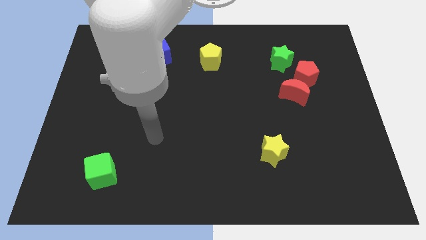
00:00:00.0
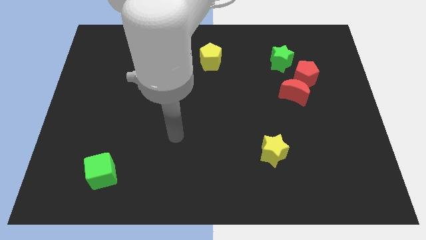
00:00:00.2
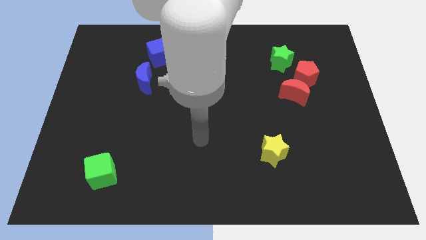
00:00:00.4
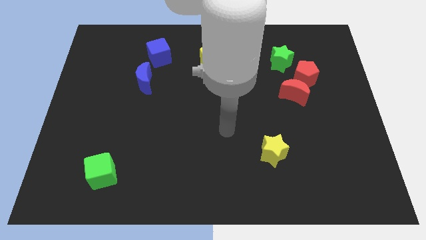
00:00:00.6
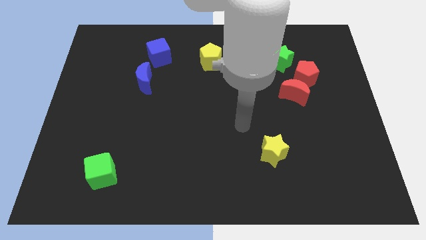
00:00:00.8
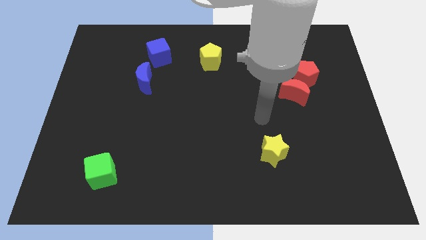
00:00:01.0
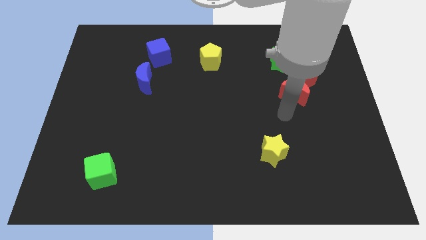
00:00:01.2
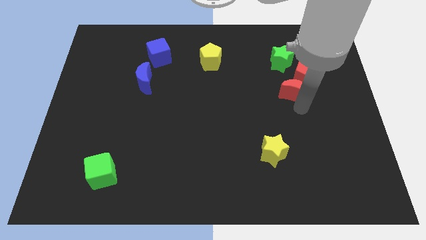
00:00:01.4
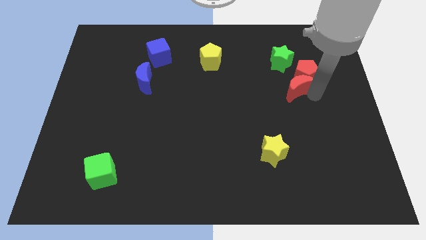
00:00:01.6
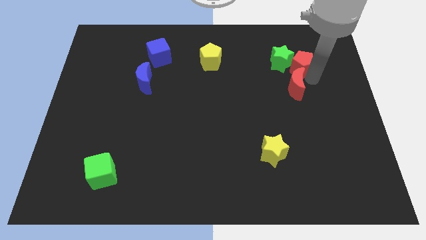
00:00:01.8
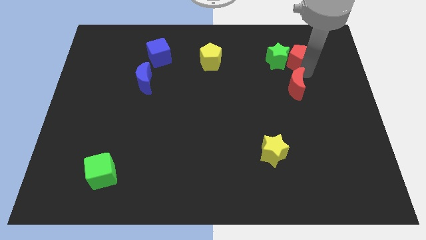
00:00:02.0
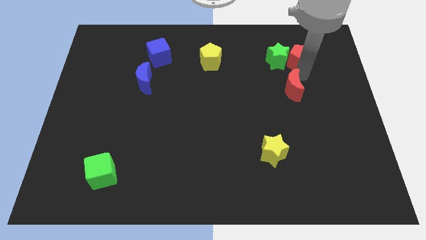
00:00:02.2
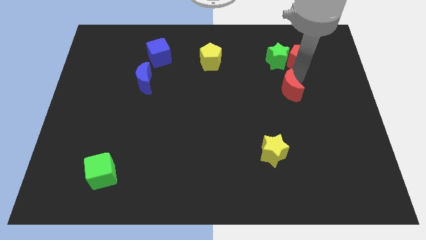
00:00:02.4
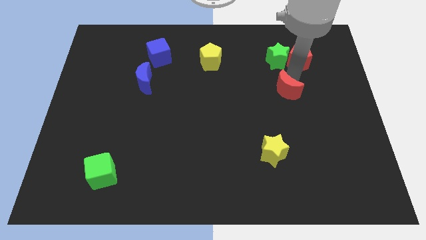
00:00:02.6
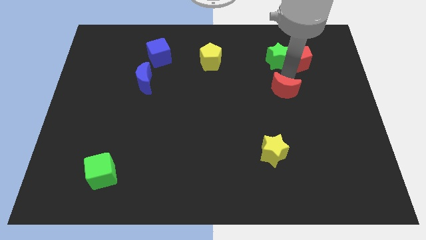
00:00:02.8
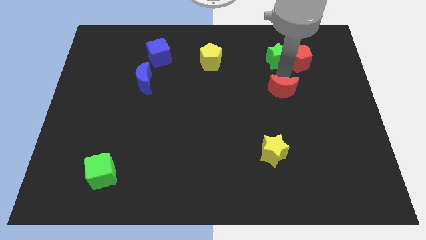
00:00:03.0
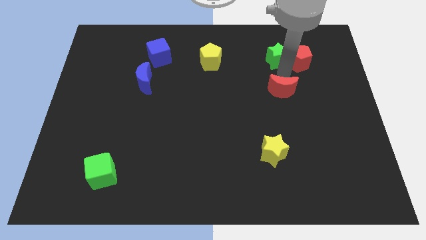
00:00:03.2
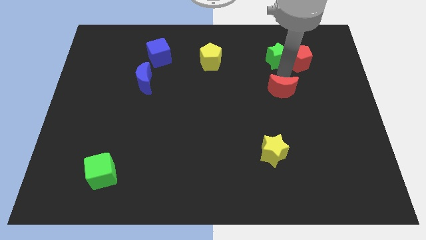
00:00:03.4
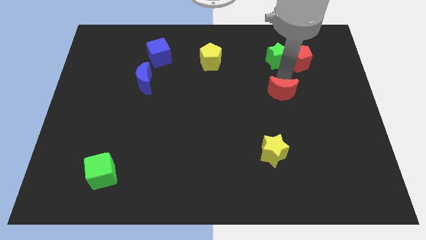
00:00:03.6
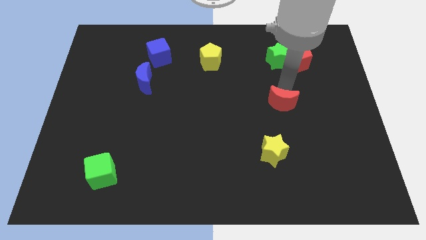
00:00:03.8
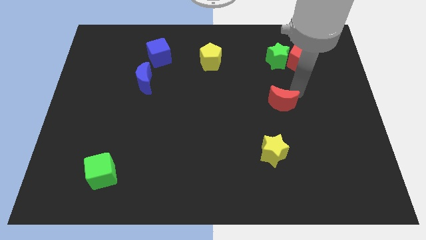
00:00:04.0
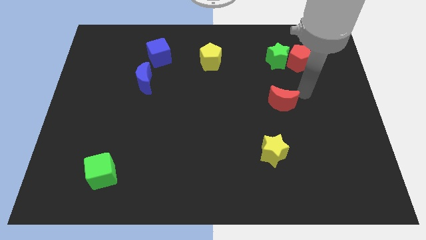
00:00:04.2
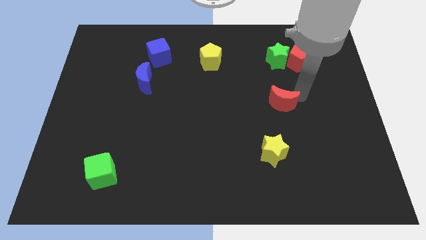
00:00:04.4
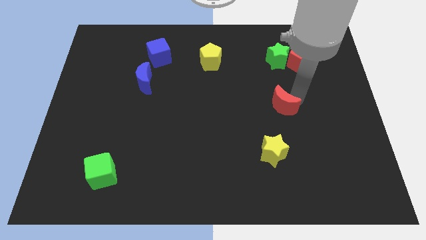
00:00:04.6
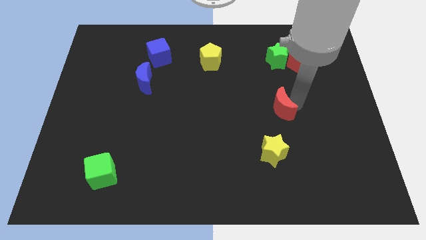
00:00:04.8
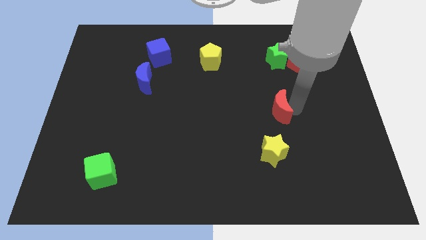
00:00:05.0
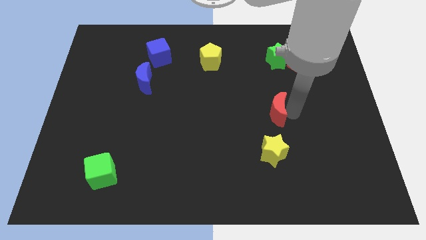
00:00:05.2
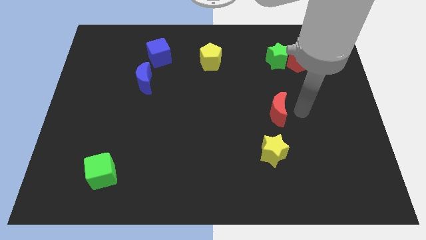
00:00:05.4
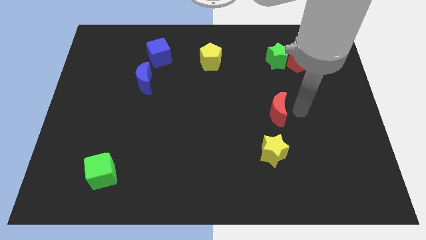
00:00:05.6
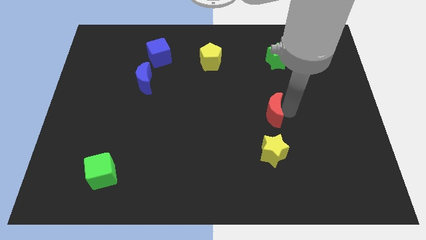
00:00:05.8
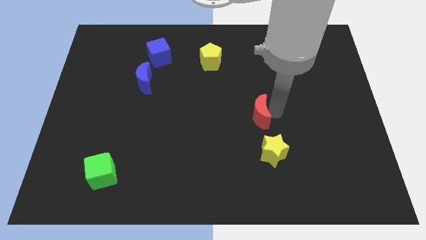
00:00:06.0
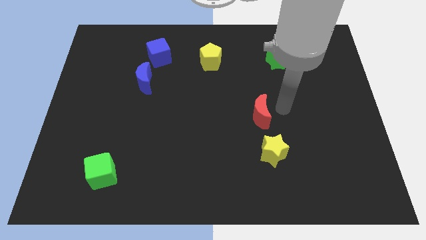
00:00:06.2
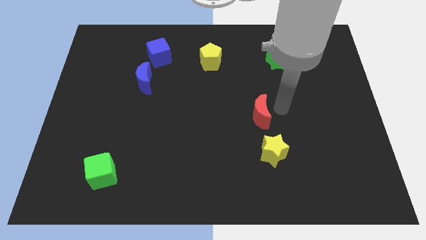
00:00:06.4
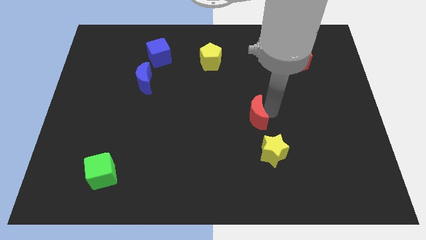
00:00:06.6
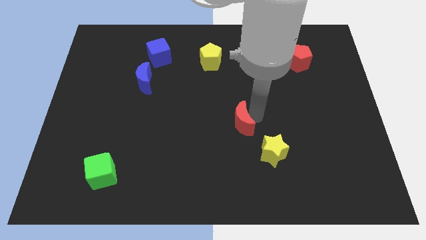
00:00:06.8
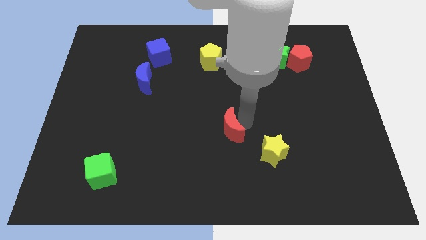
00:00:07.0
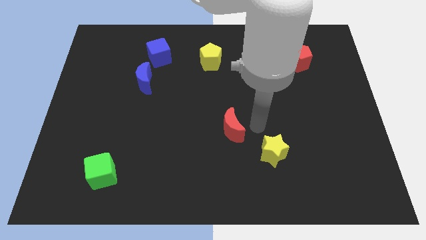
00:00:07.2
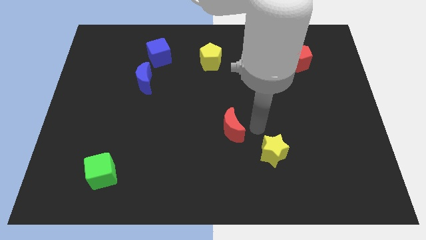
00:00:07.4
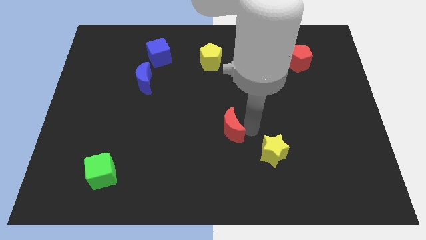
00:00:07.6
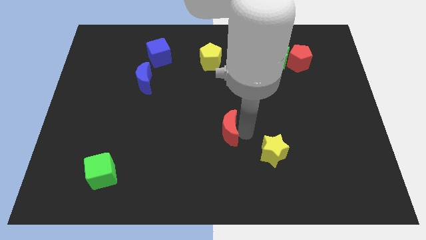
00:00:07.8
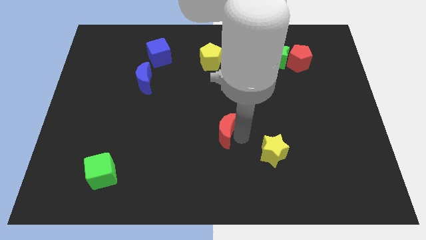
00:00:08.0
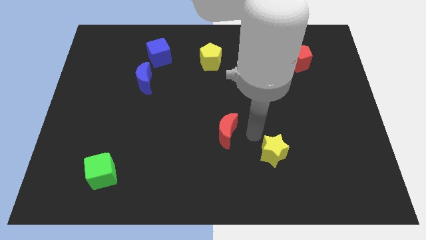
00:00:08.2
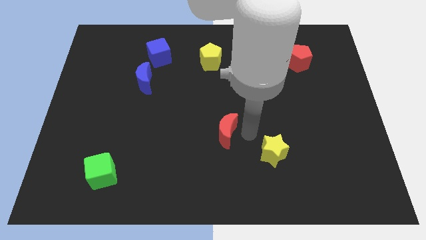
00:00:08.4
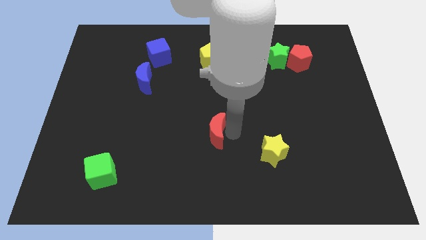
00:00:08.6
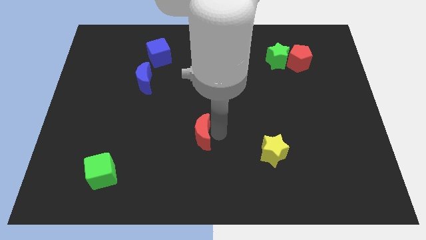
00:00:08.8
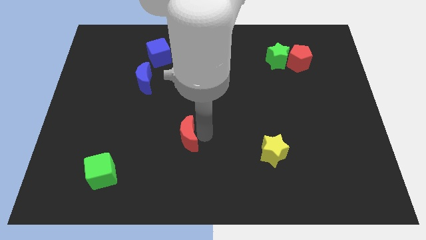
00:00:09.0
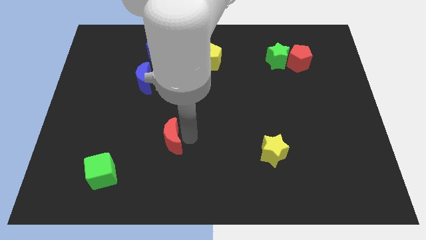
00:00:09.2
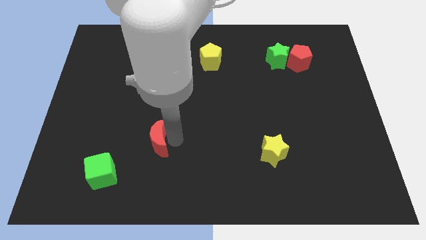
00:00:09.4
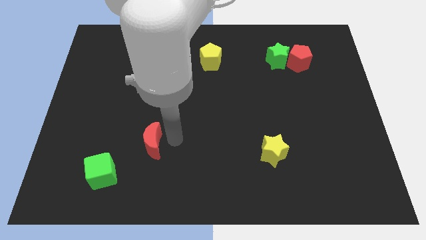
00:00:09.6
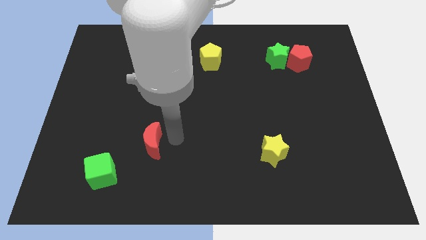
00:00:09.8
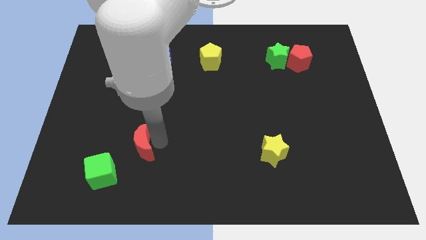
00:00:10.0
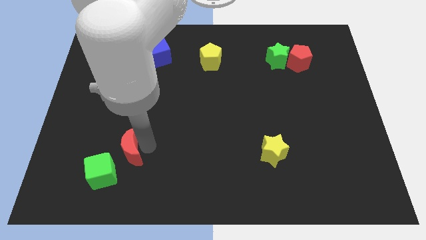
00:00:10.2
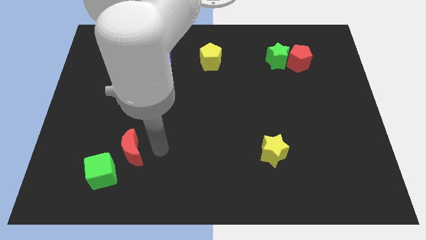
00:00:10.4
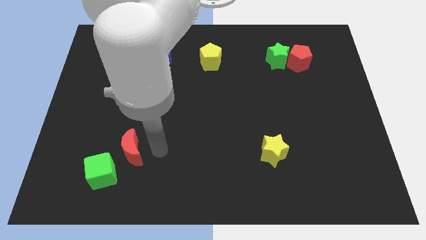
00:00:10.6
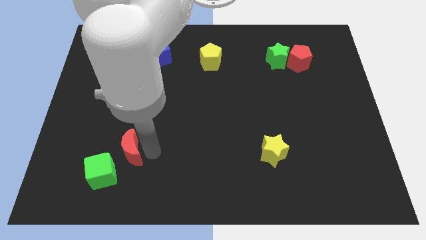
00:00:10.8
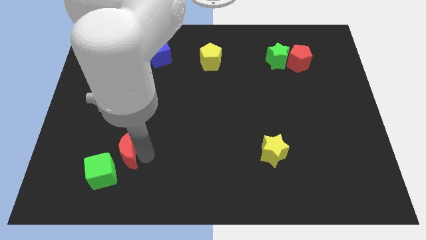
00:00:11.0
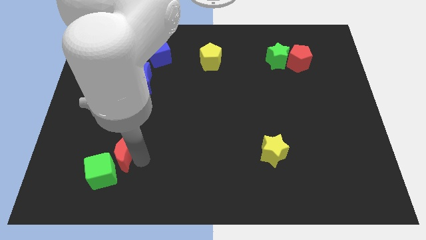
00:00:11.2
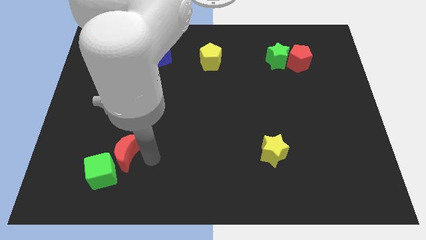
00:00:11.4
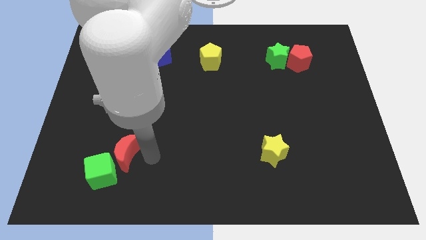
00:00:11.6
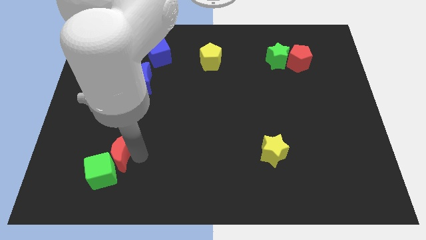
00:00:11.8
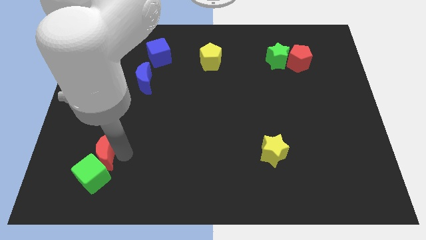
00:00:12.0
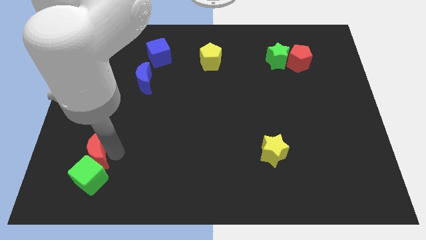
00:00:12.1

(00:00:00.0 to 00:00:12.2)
move the red moon diagonally up and to the left of the green cube

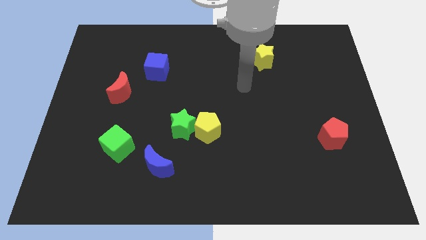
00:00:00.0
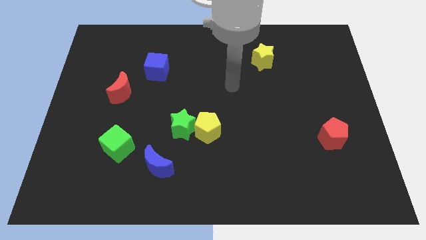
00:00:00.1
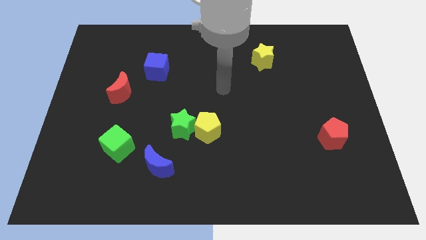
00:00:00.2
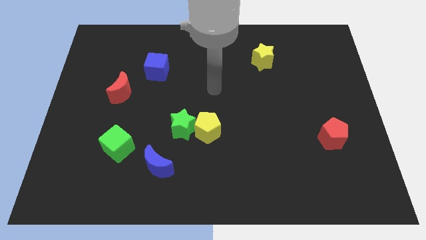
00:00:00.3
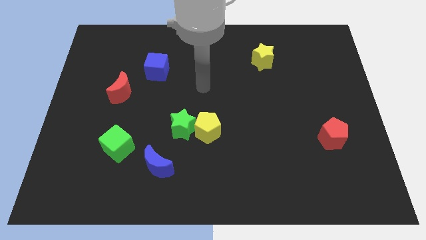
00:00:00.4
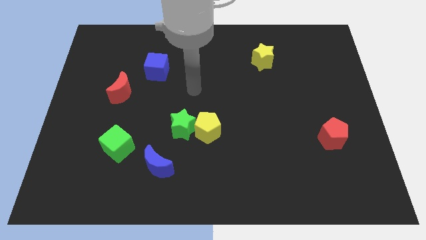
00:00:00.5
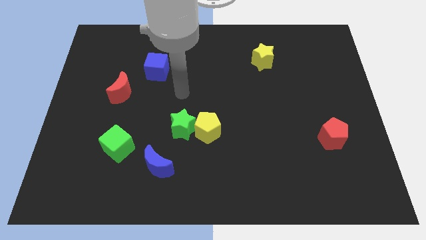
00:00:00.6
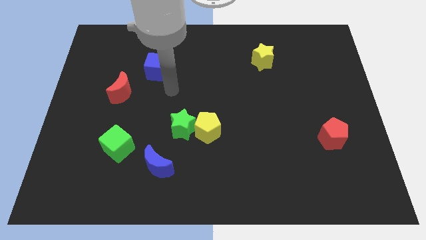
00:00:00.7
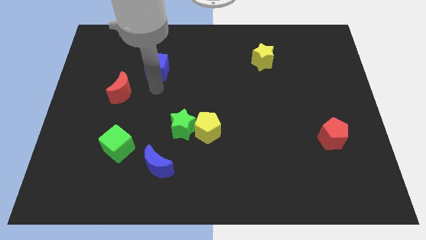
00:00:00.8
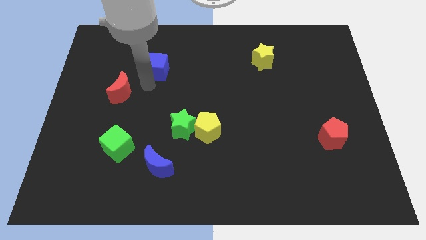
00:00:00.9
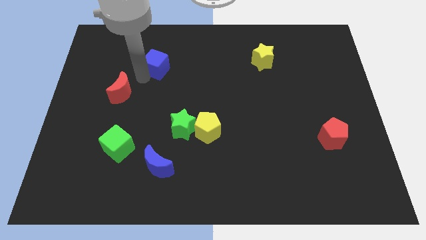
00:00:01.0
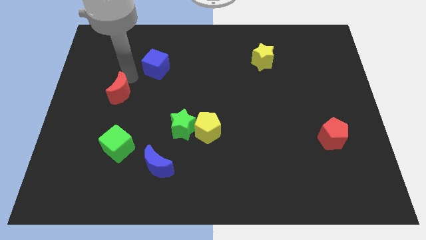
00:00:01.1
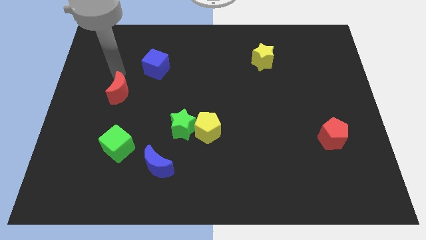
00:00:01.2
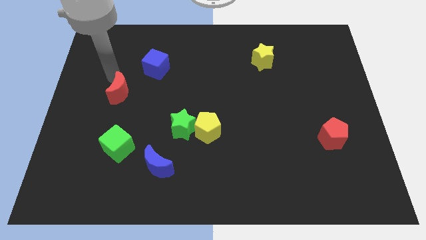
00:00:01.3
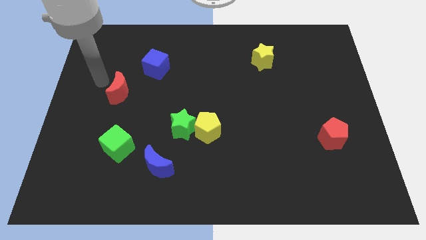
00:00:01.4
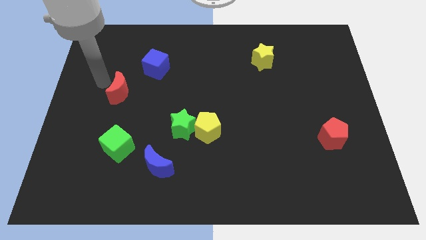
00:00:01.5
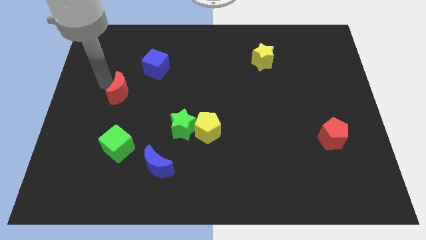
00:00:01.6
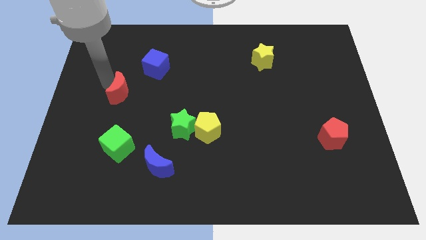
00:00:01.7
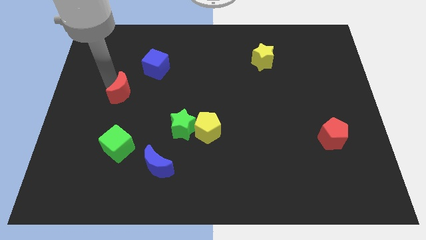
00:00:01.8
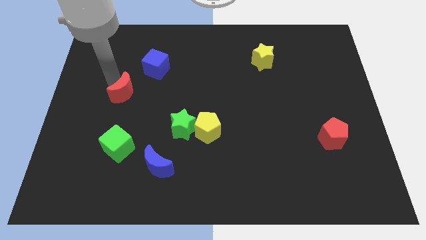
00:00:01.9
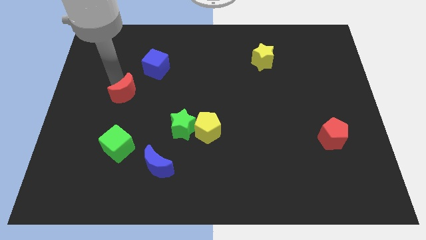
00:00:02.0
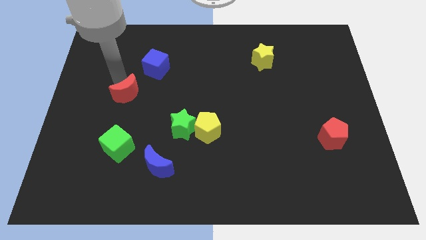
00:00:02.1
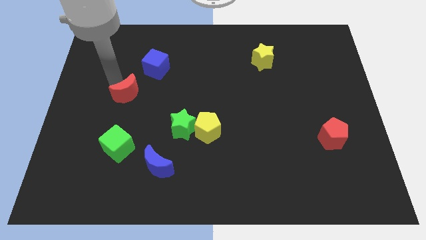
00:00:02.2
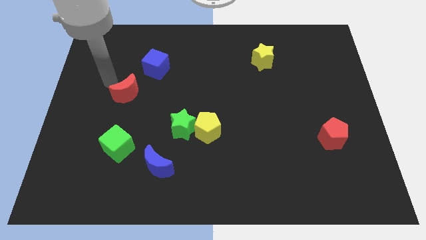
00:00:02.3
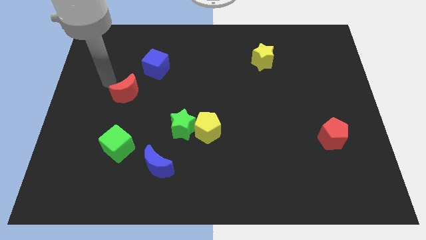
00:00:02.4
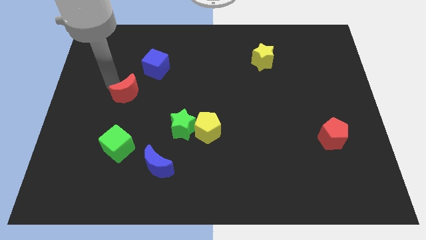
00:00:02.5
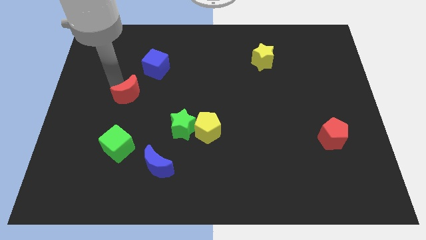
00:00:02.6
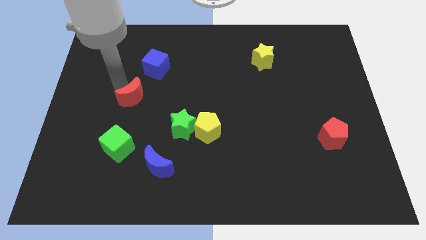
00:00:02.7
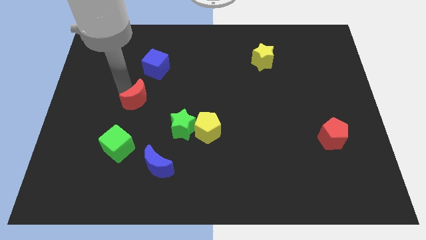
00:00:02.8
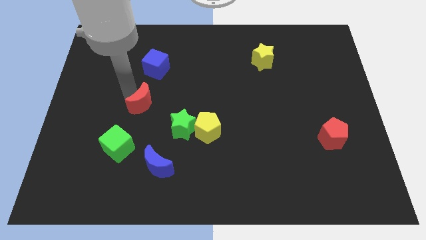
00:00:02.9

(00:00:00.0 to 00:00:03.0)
slide the red moon to the top left side of the green star
